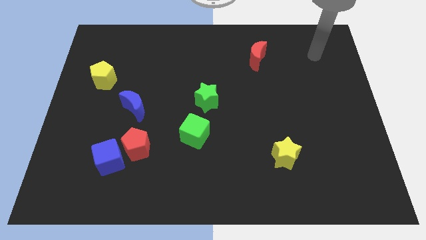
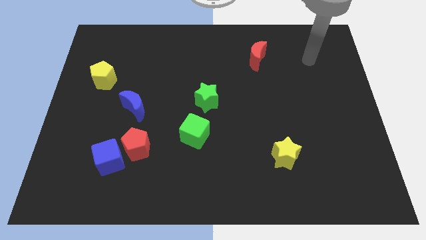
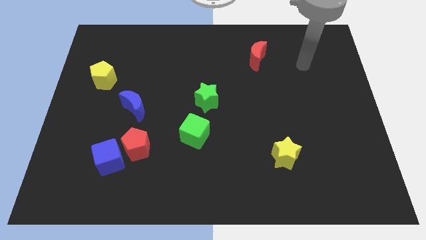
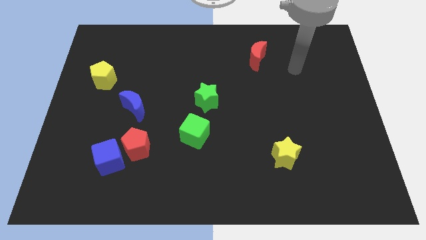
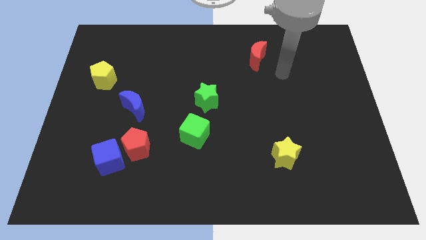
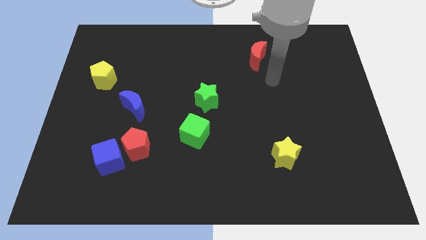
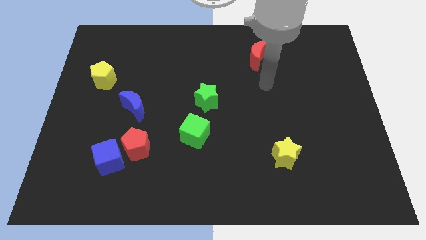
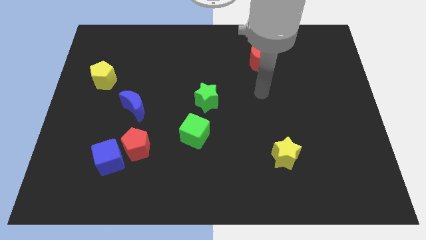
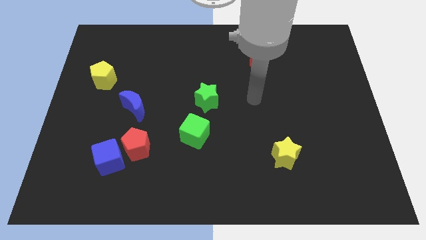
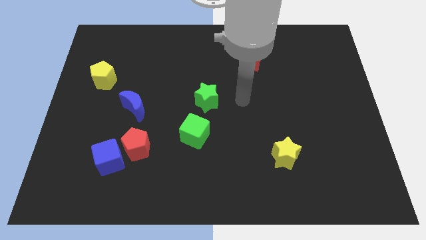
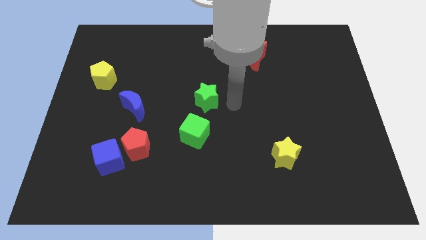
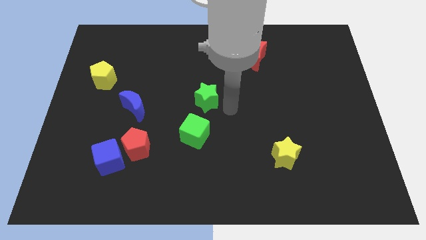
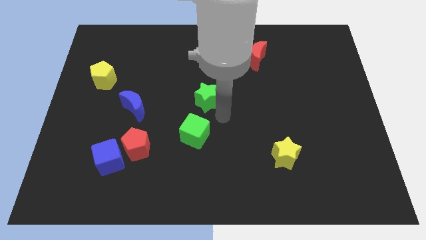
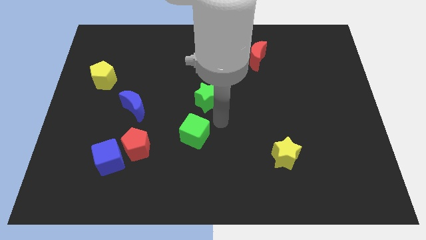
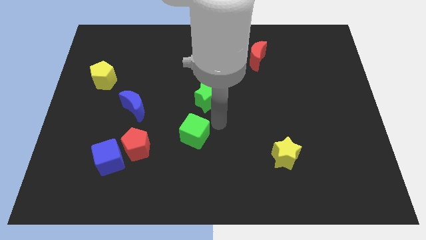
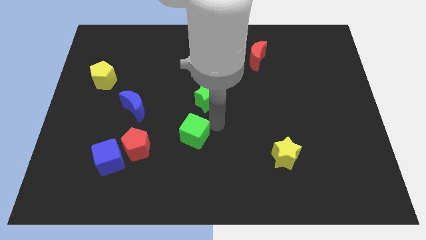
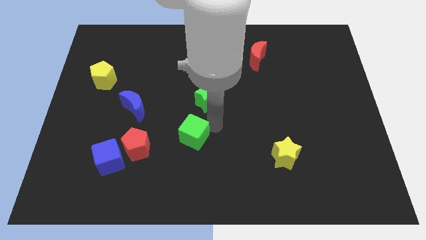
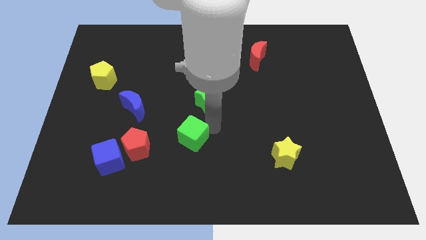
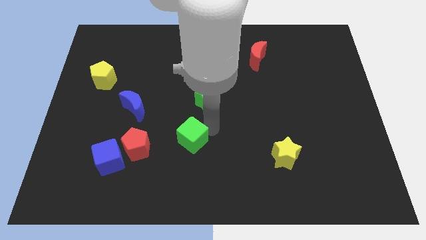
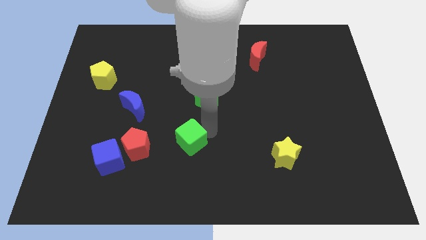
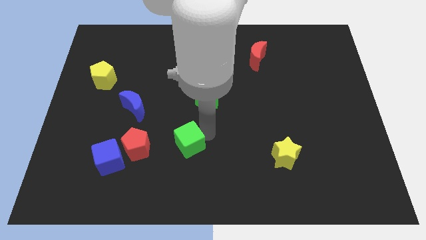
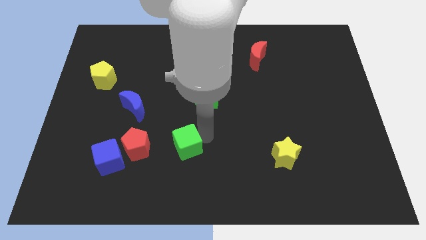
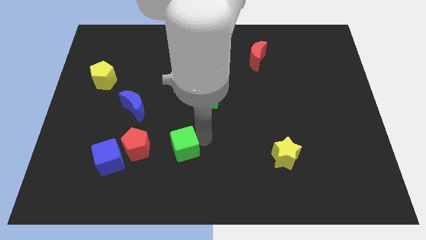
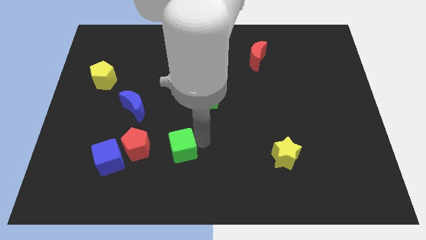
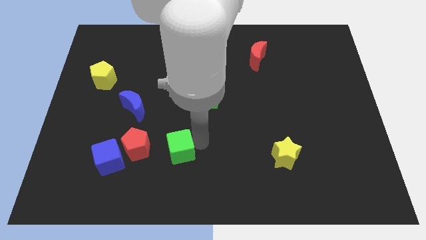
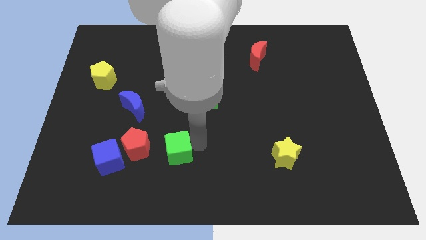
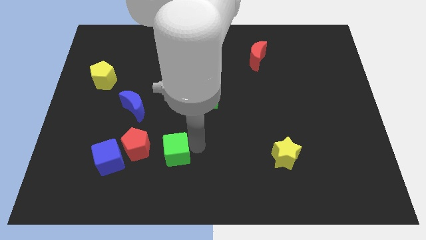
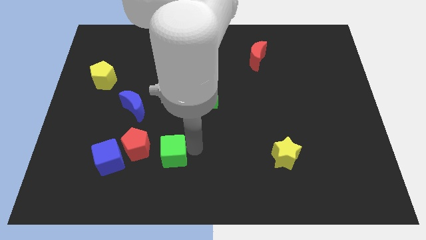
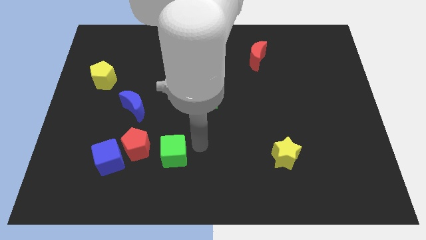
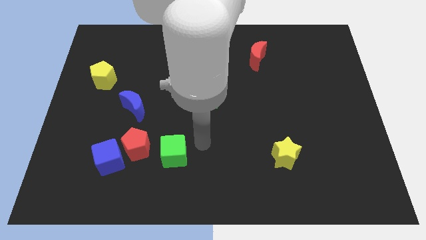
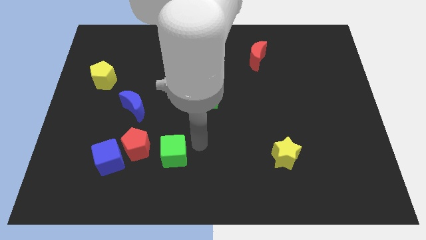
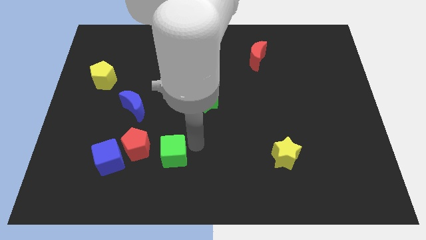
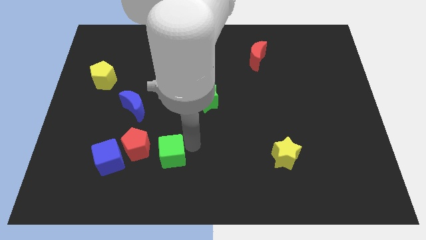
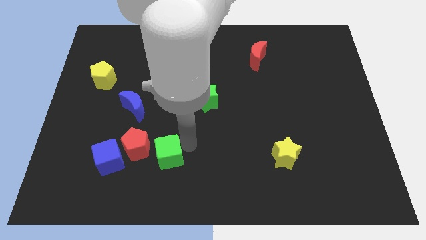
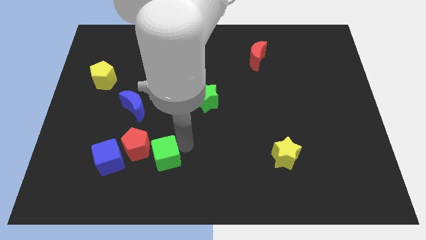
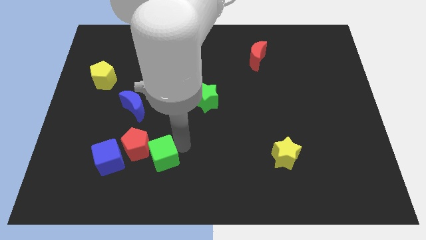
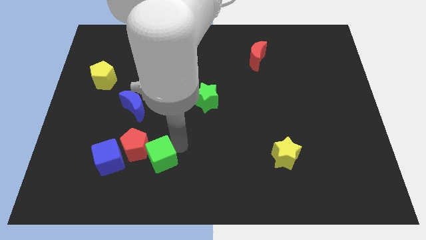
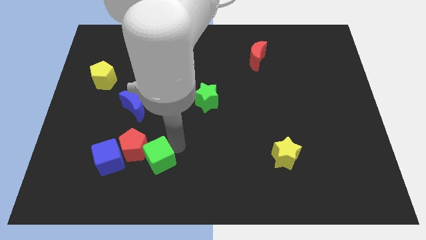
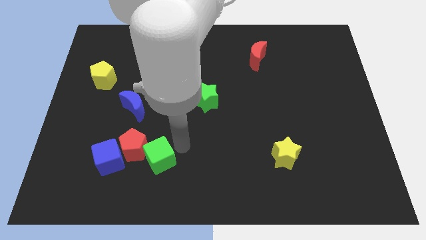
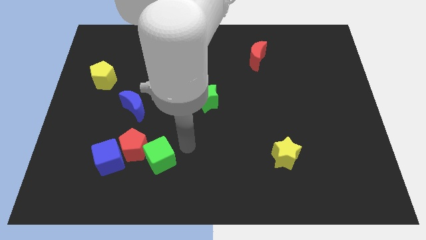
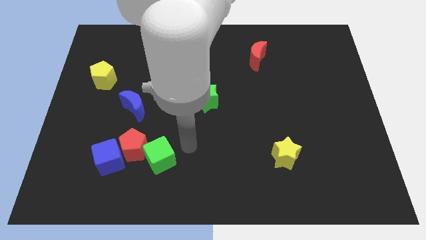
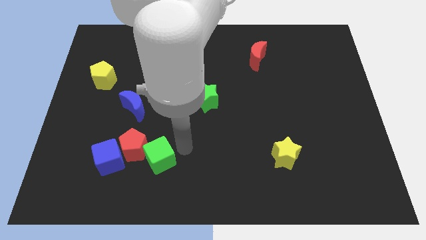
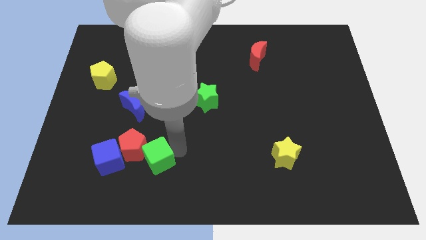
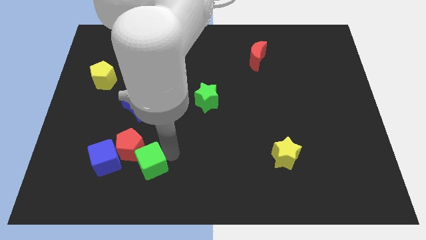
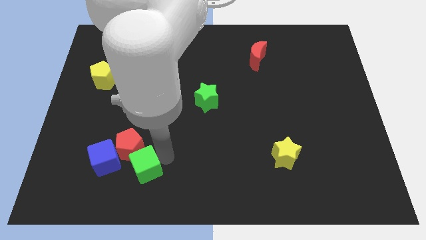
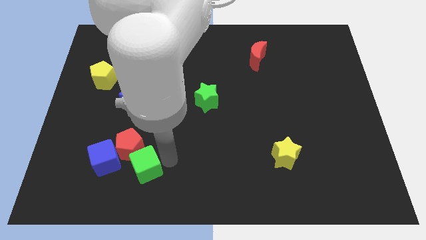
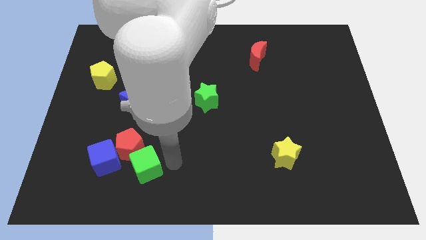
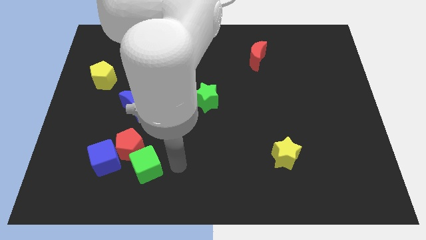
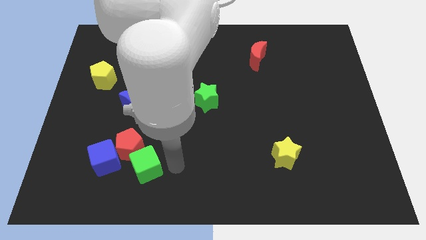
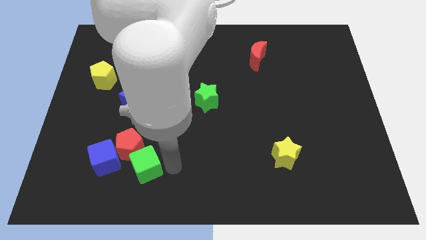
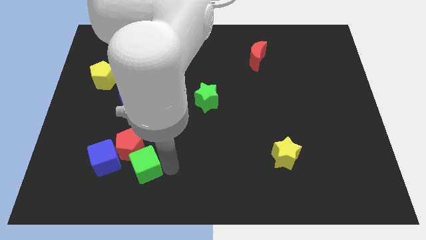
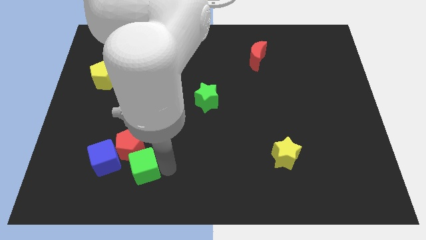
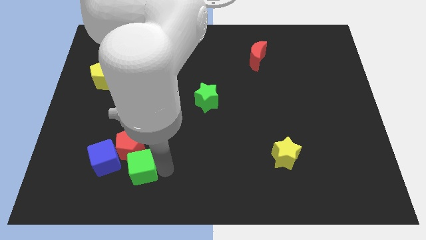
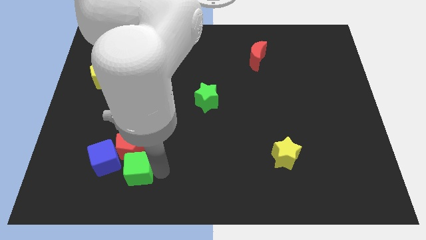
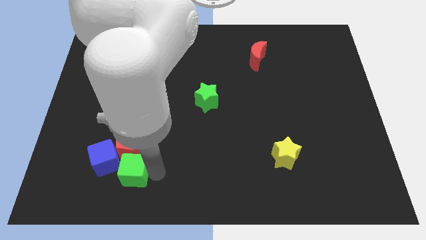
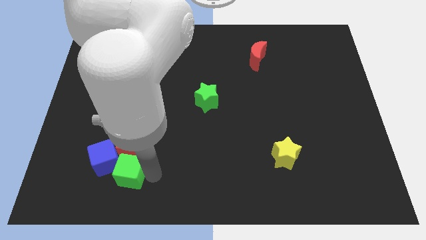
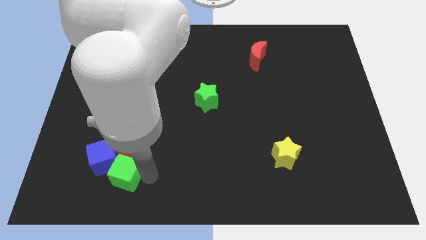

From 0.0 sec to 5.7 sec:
move the green cube close to the blue cube

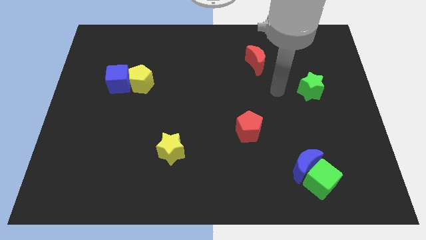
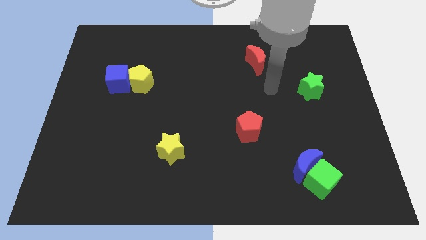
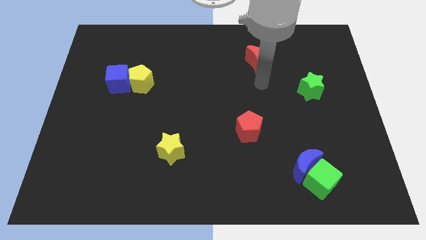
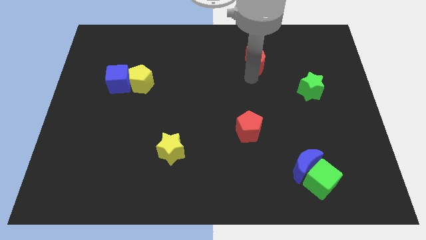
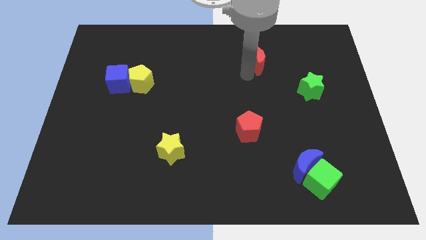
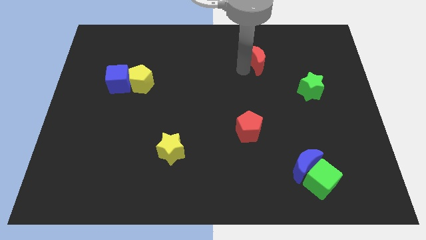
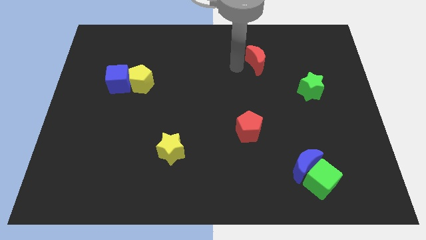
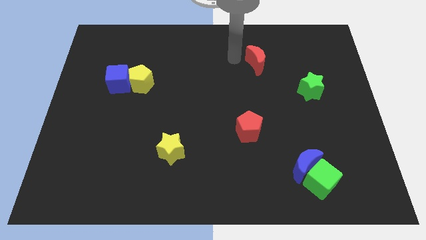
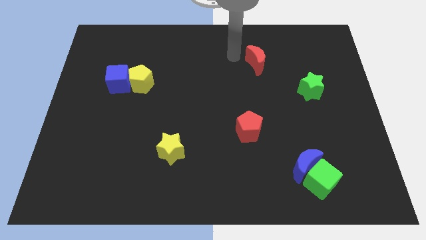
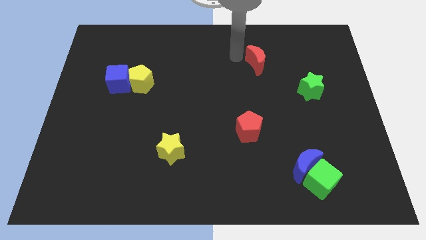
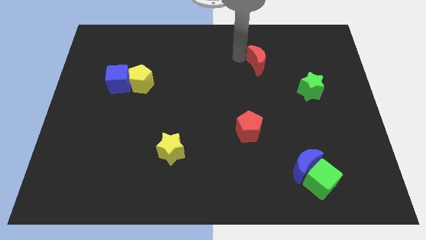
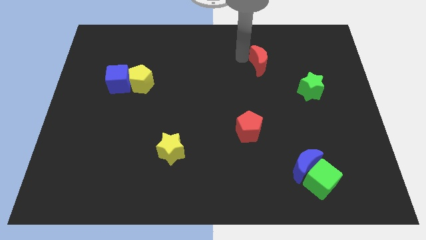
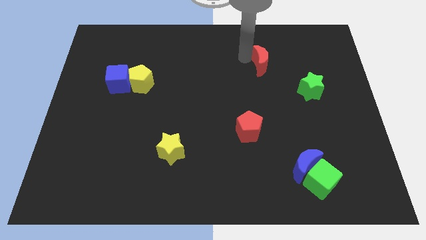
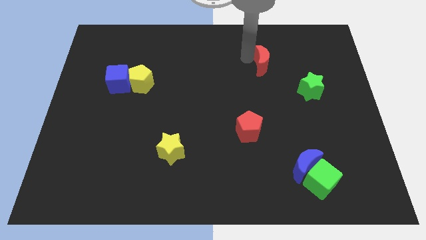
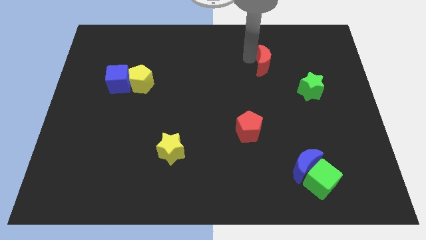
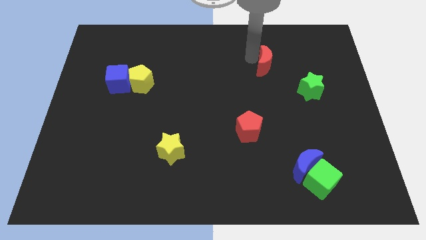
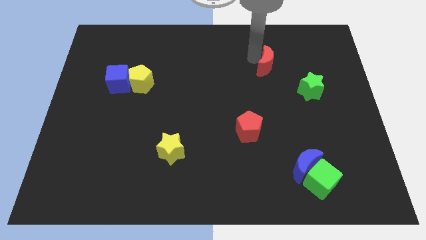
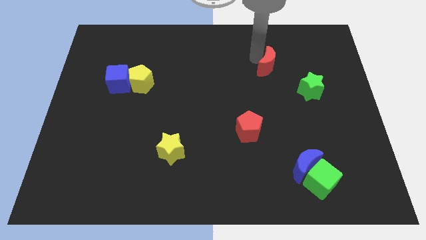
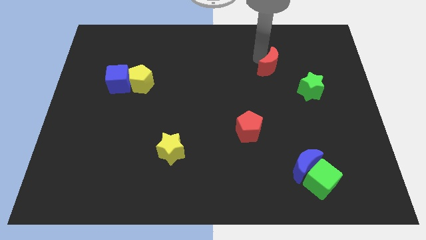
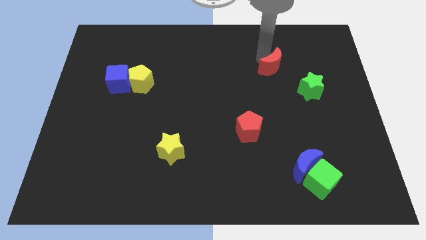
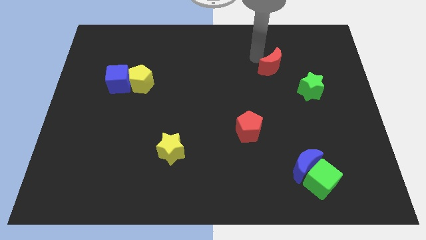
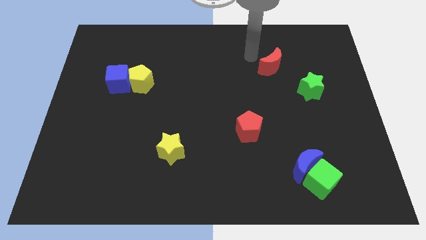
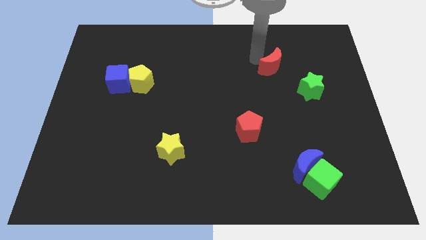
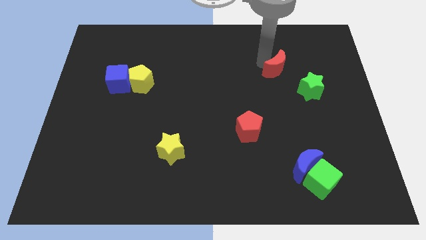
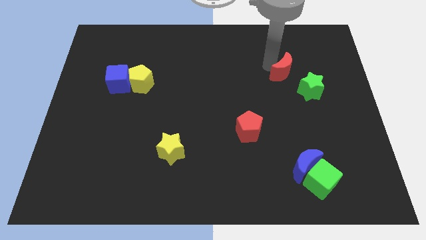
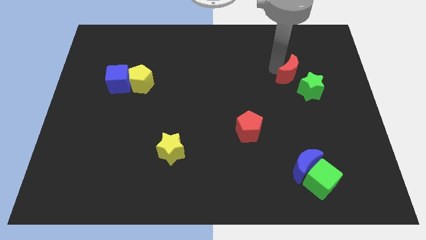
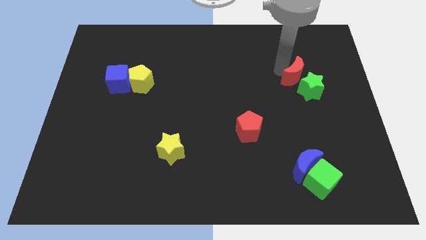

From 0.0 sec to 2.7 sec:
push the red moon next to the green star
